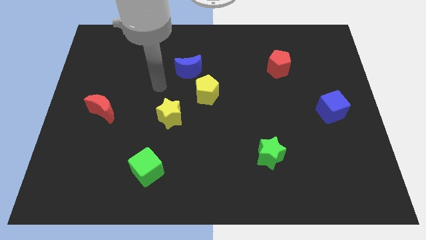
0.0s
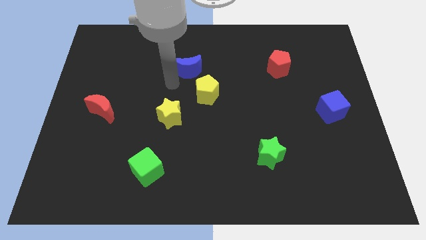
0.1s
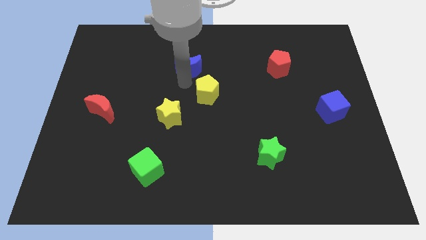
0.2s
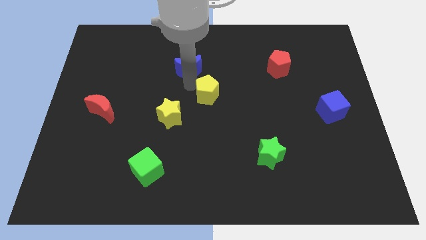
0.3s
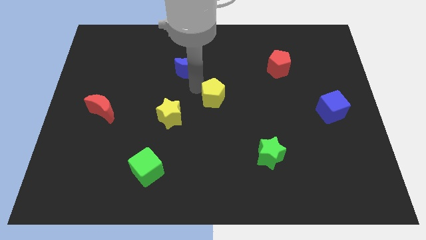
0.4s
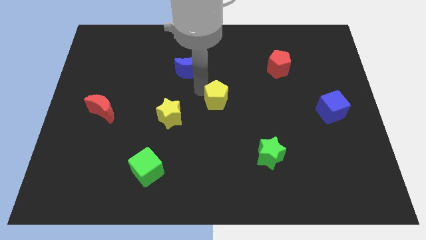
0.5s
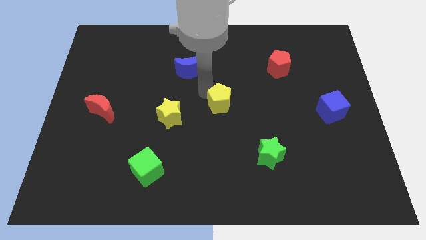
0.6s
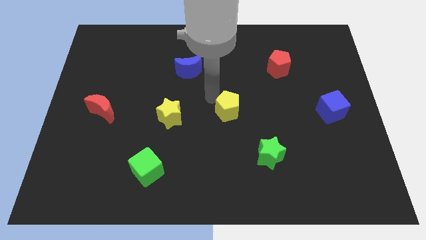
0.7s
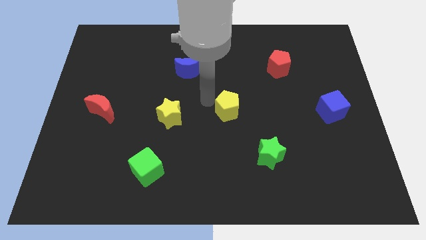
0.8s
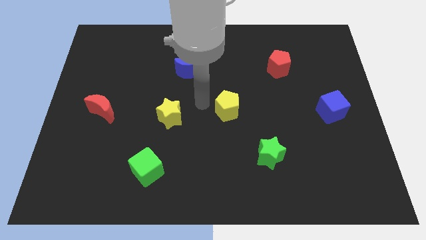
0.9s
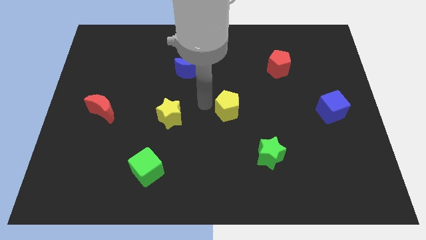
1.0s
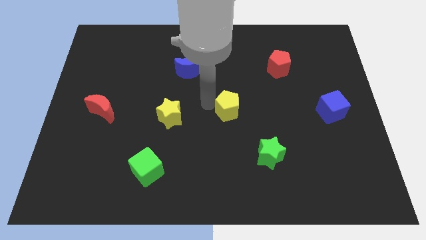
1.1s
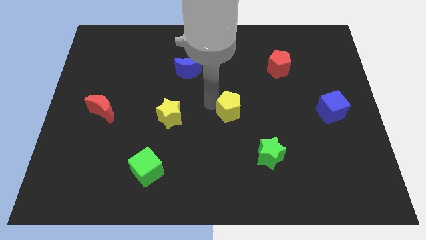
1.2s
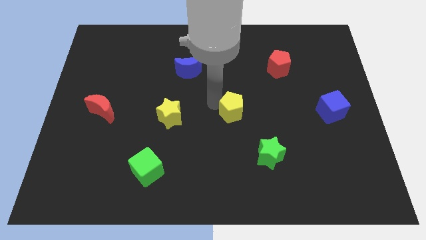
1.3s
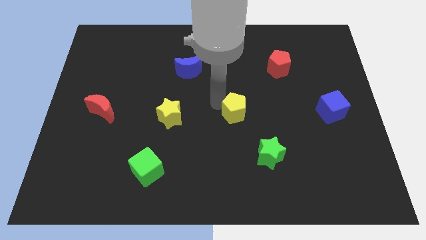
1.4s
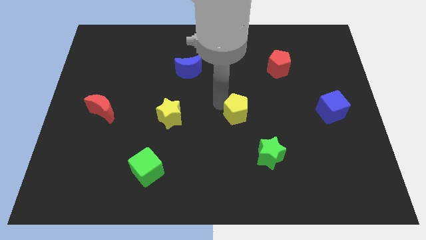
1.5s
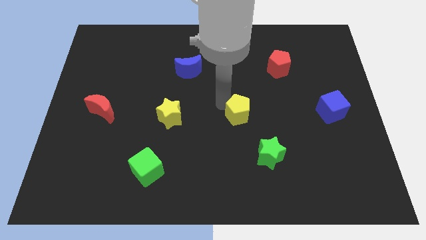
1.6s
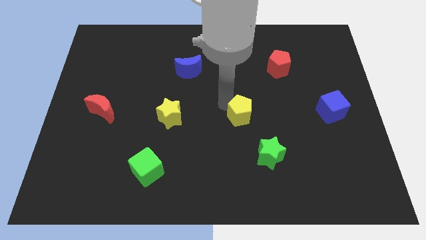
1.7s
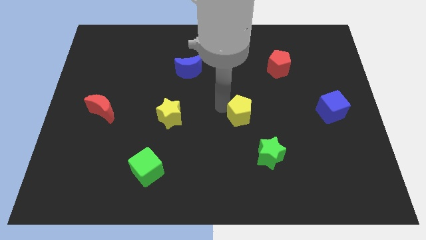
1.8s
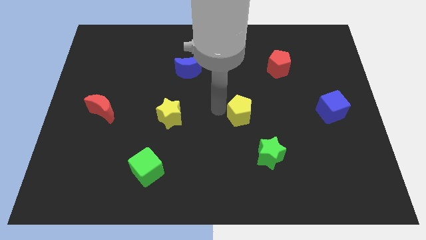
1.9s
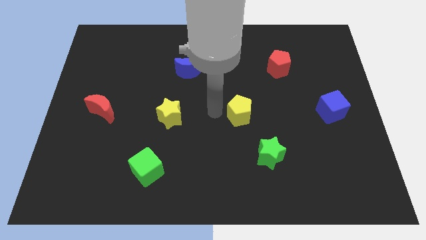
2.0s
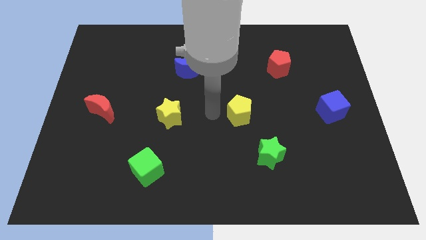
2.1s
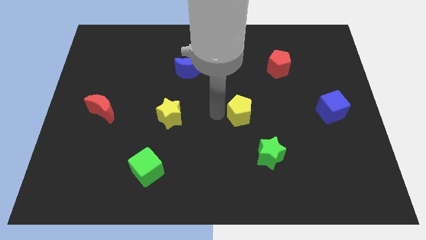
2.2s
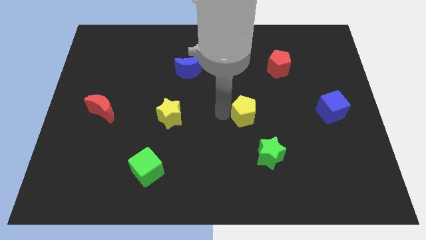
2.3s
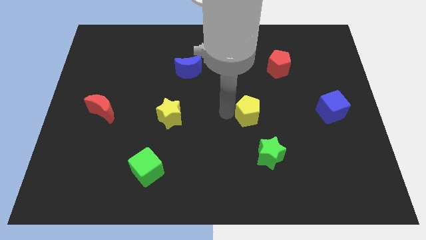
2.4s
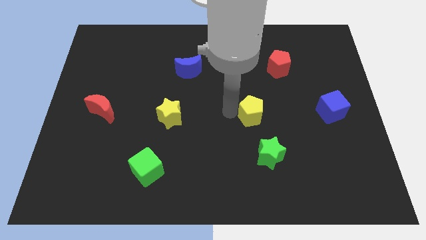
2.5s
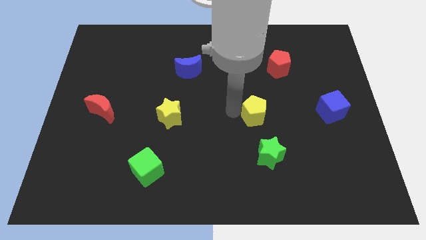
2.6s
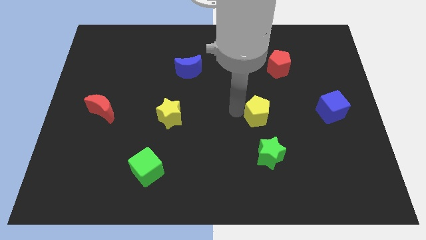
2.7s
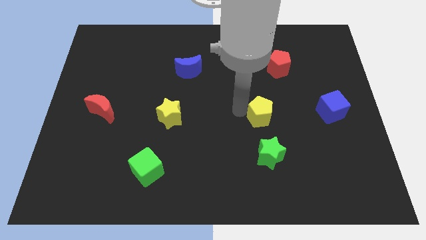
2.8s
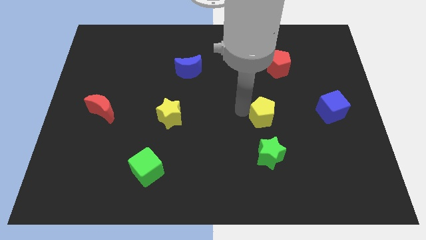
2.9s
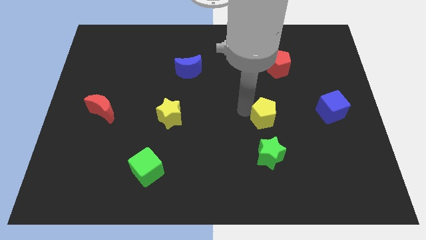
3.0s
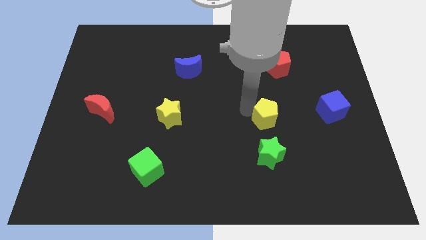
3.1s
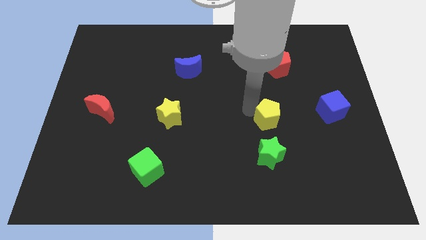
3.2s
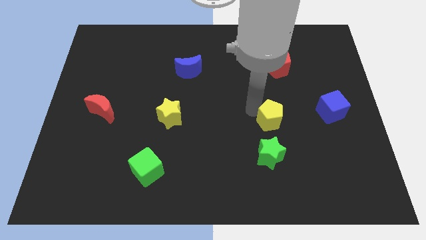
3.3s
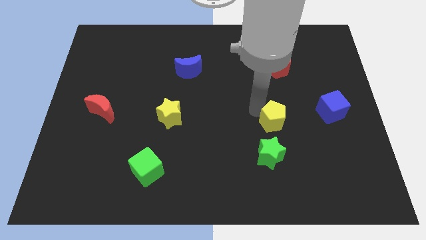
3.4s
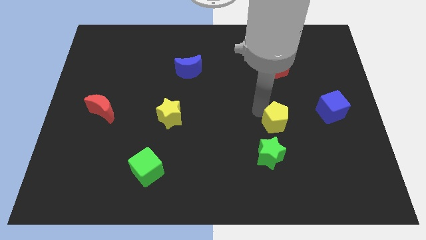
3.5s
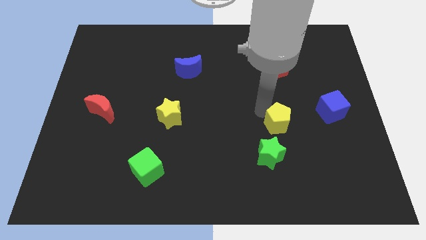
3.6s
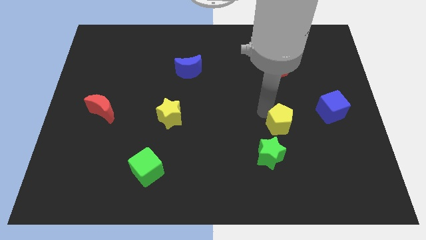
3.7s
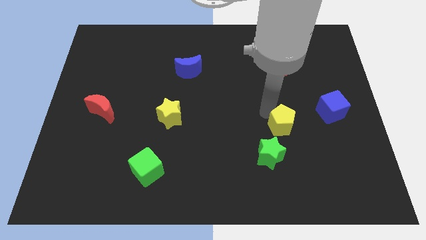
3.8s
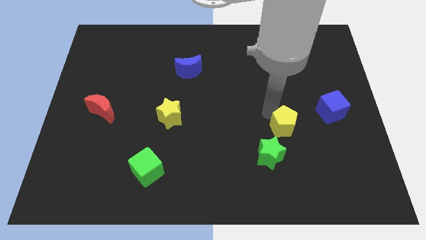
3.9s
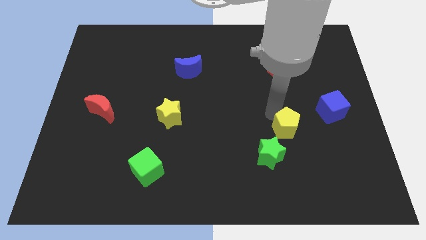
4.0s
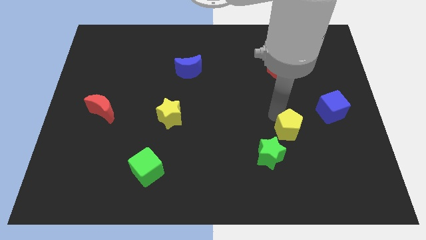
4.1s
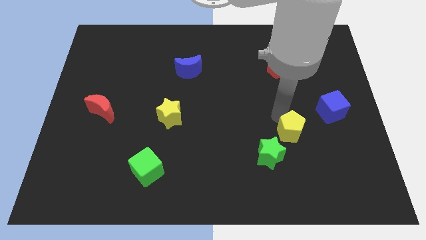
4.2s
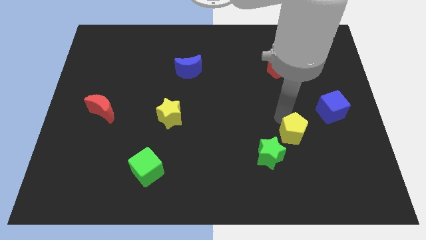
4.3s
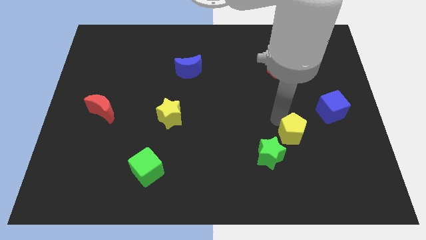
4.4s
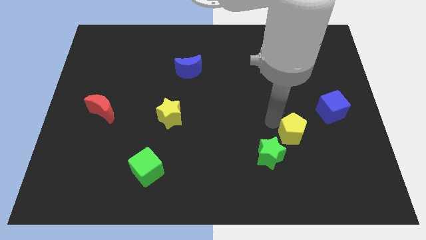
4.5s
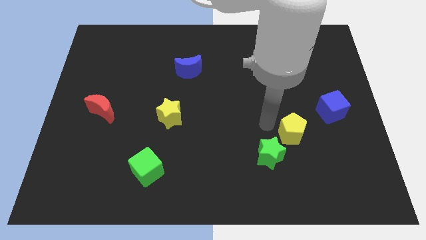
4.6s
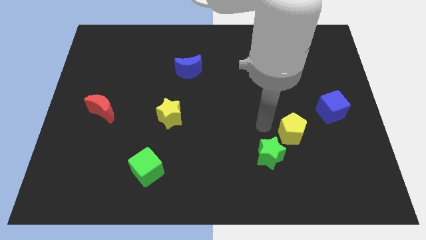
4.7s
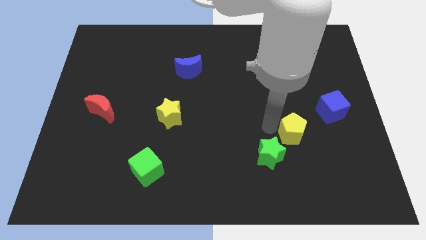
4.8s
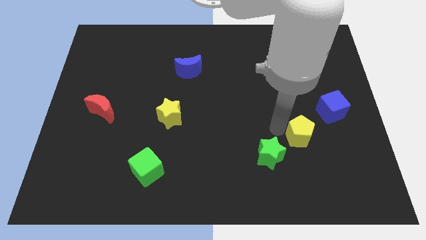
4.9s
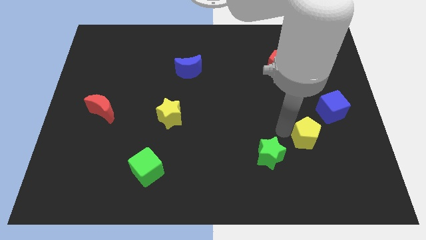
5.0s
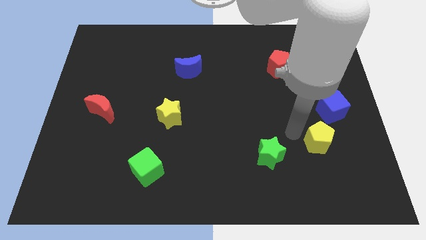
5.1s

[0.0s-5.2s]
push the yellow pentagon to the bottom of the blue cube

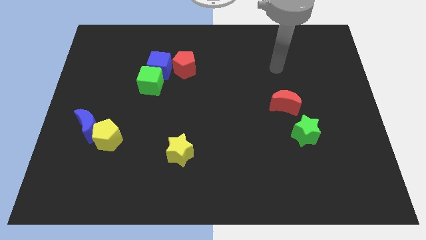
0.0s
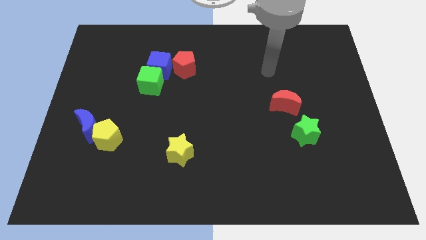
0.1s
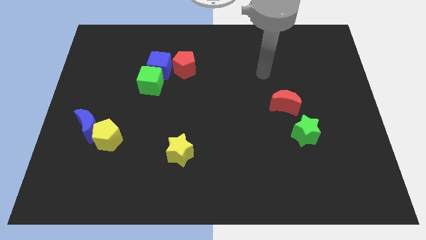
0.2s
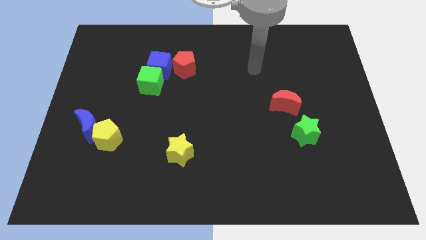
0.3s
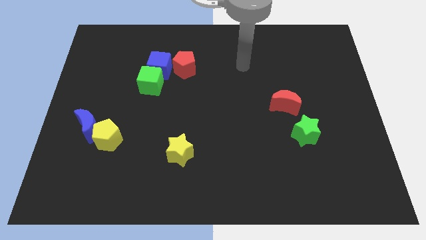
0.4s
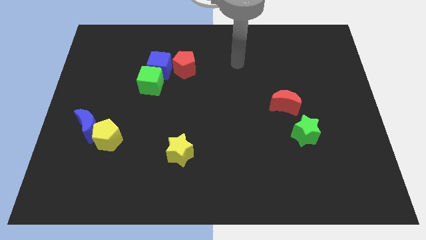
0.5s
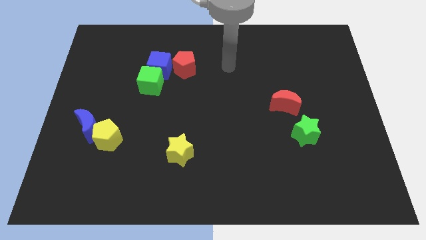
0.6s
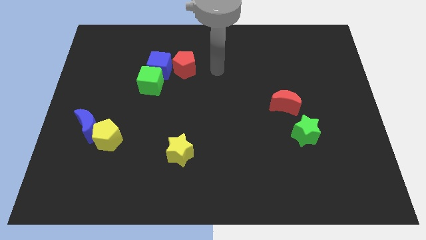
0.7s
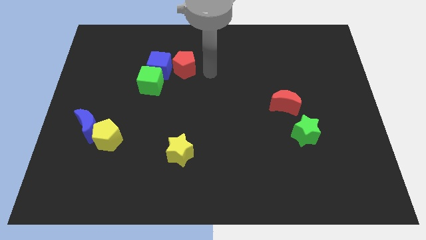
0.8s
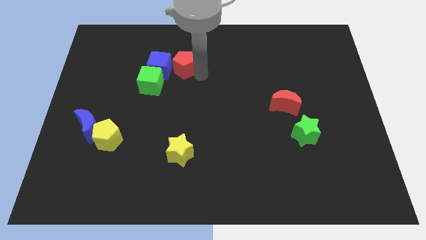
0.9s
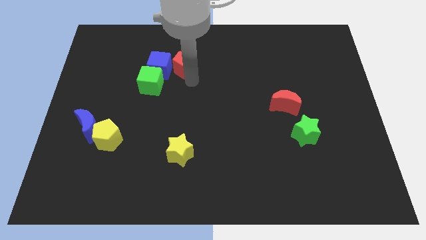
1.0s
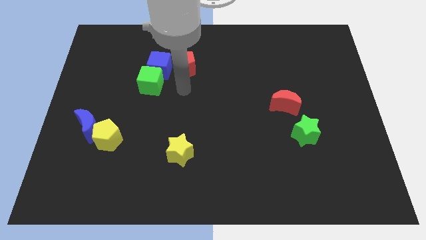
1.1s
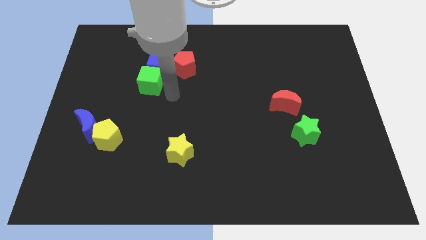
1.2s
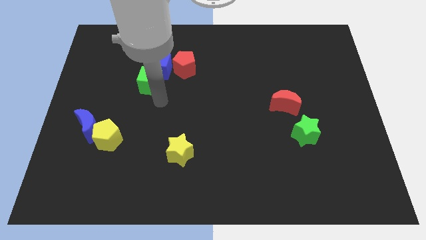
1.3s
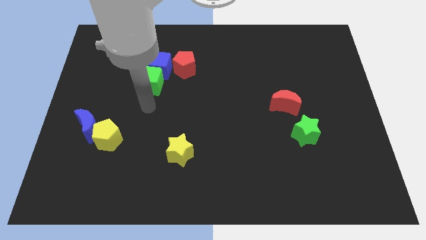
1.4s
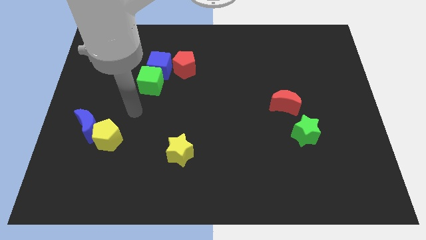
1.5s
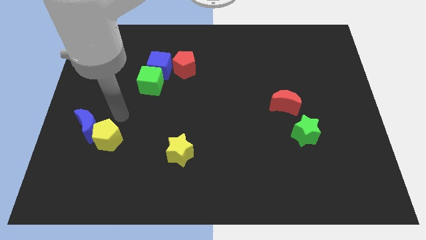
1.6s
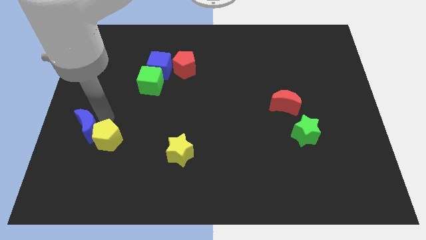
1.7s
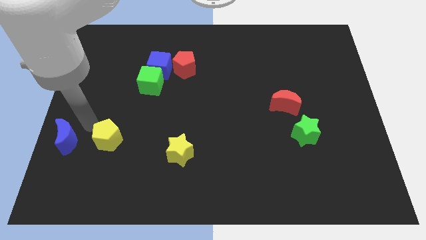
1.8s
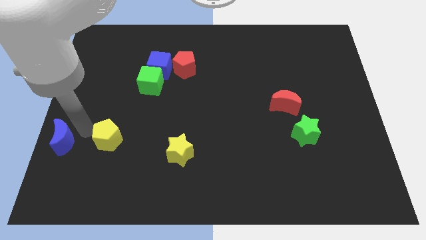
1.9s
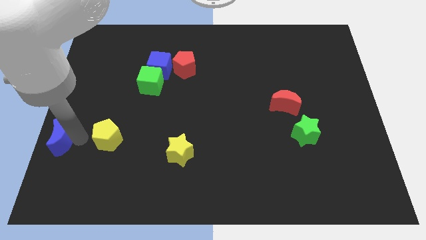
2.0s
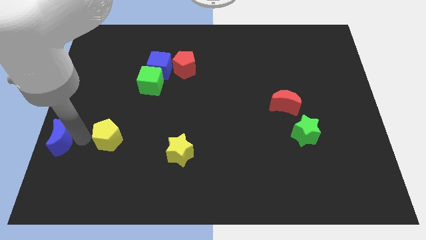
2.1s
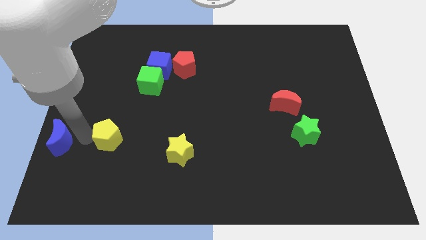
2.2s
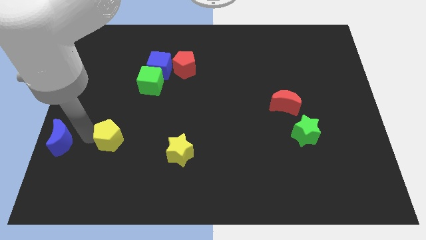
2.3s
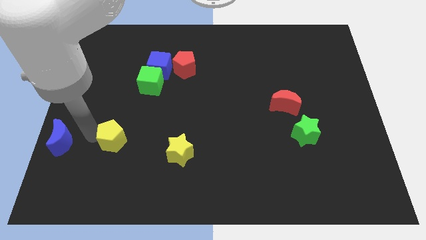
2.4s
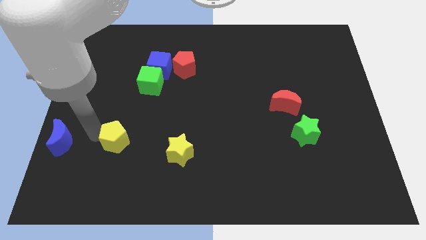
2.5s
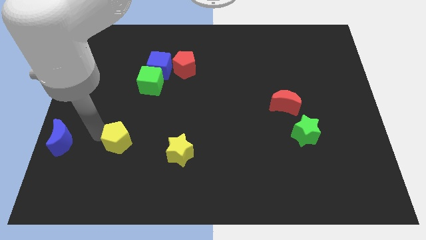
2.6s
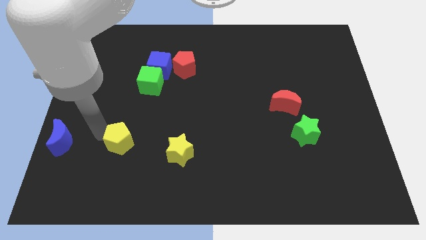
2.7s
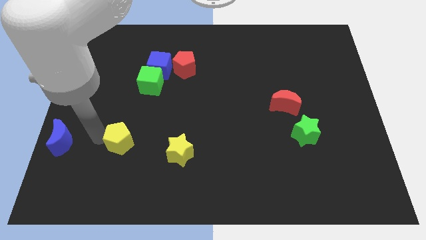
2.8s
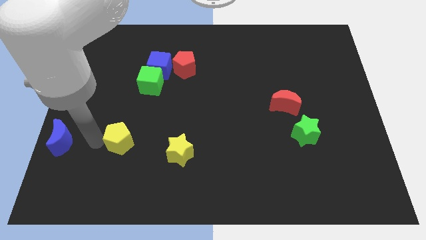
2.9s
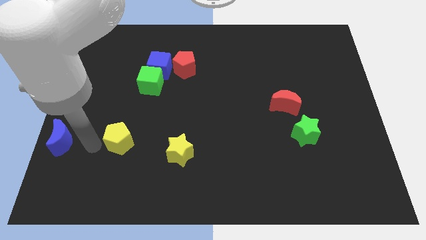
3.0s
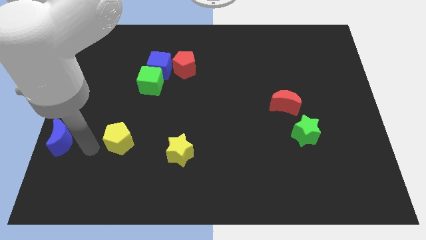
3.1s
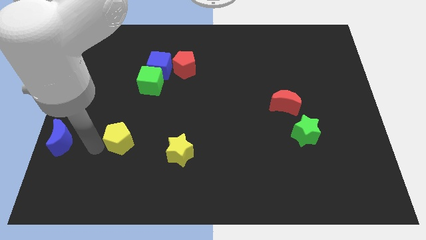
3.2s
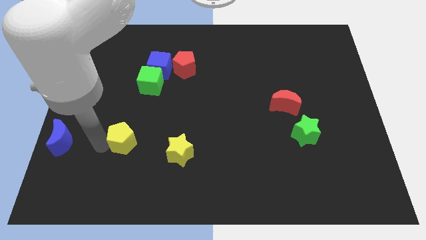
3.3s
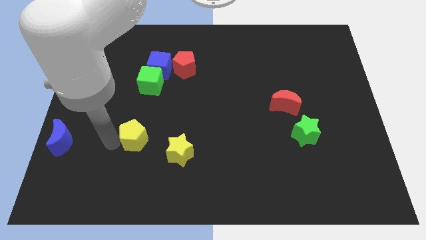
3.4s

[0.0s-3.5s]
slide the yellow pentagon to the top left side of the yellow star
